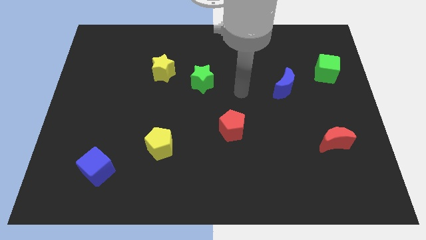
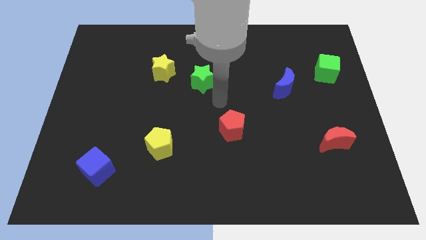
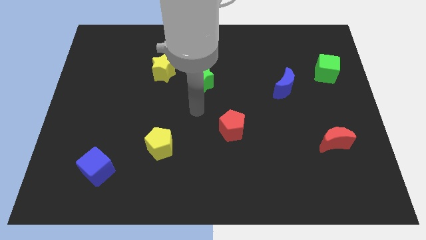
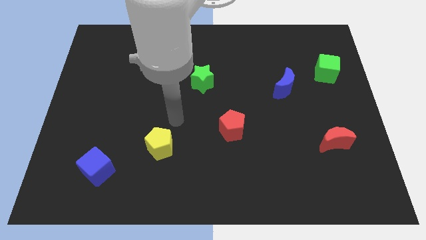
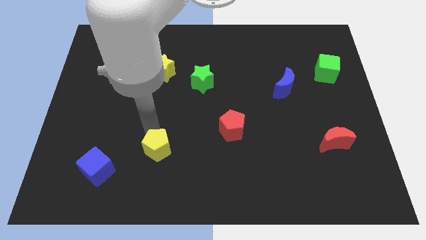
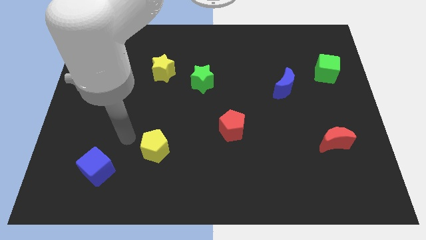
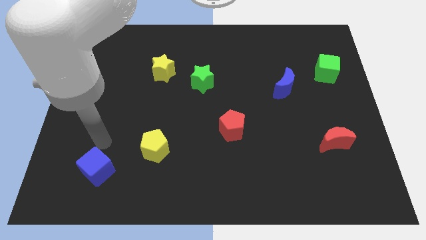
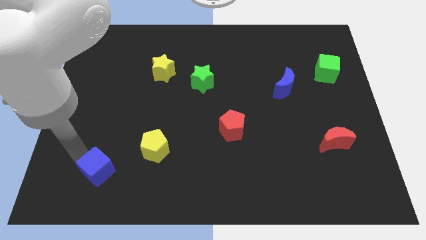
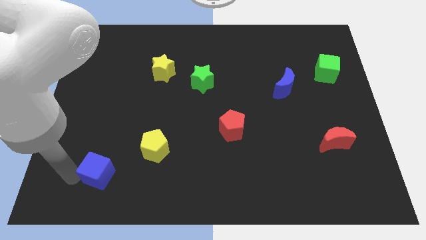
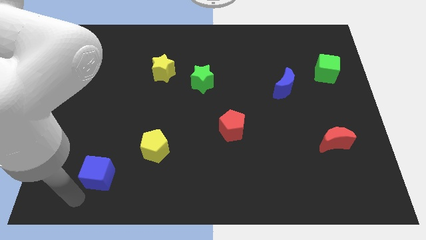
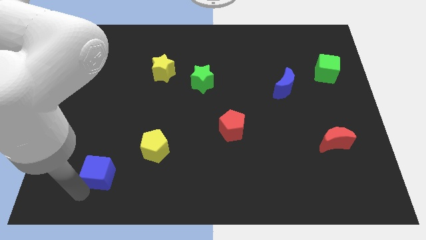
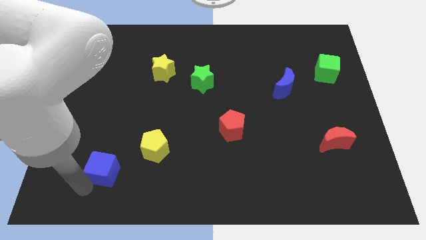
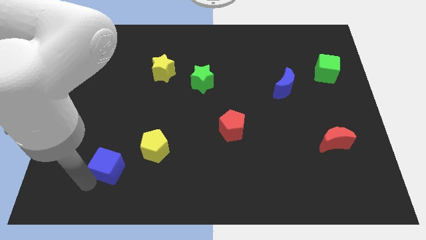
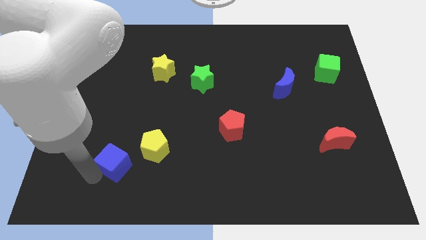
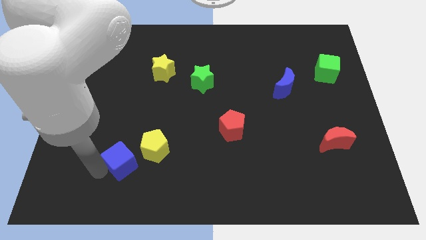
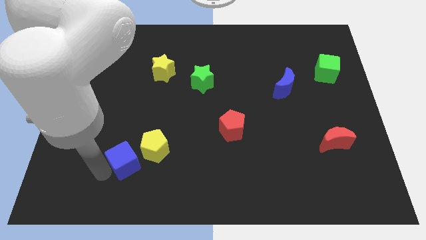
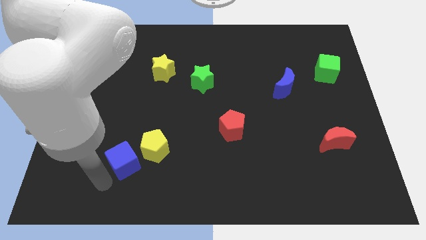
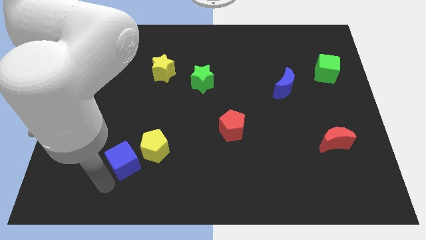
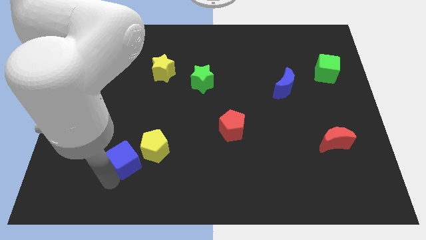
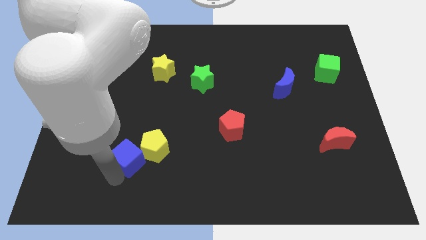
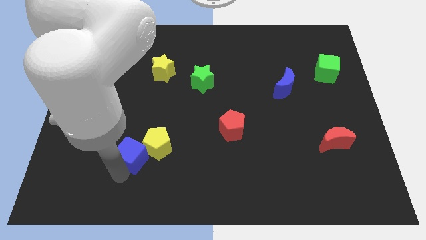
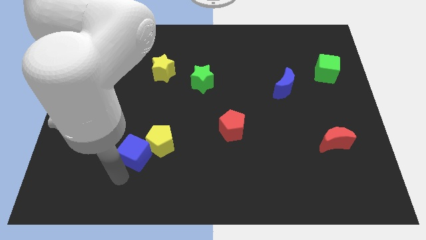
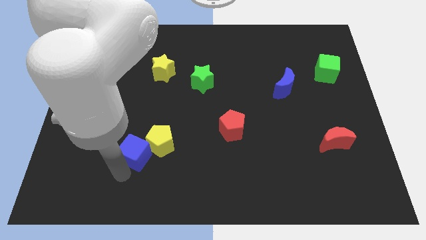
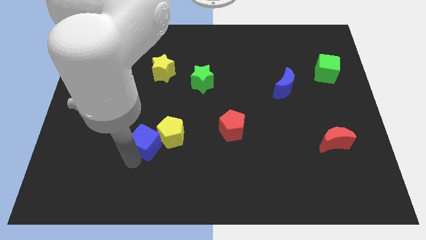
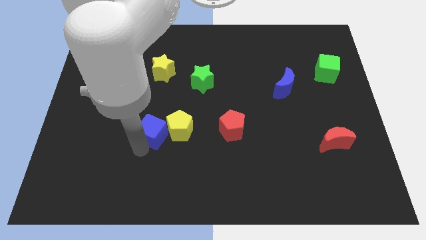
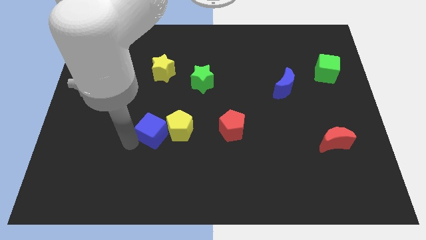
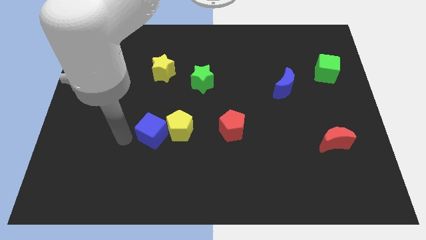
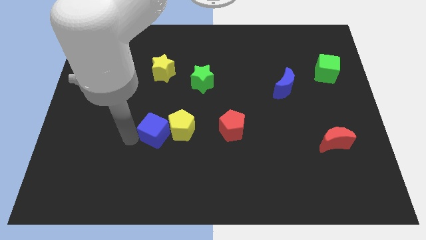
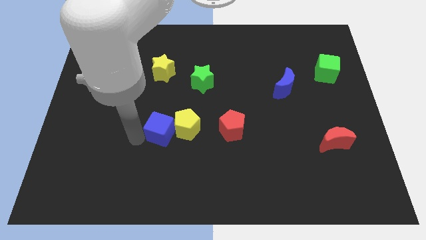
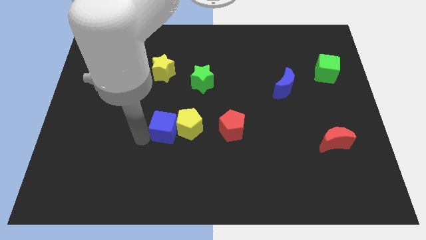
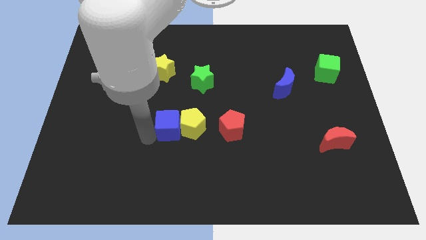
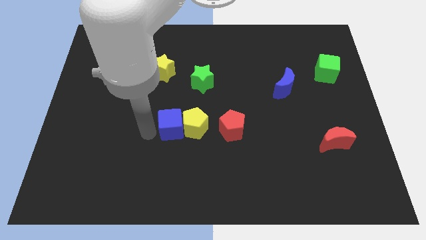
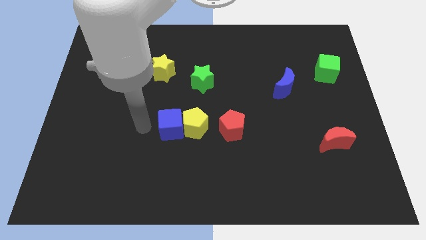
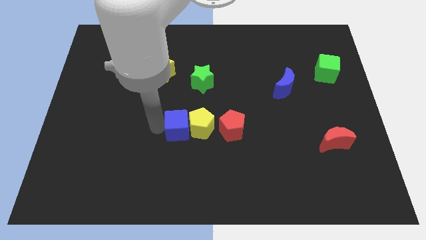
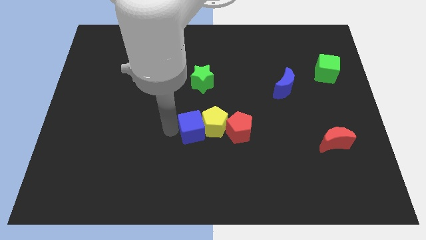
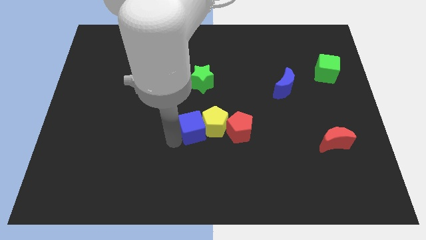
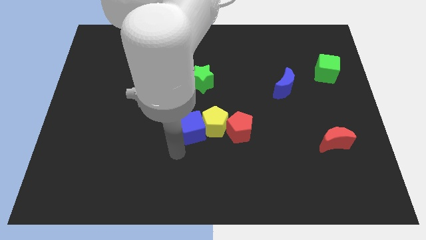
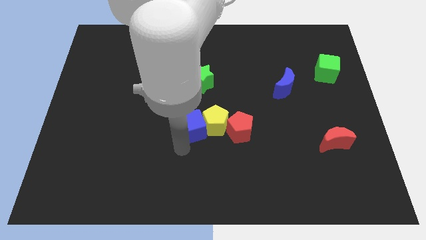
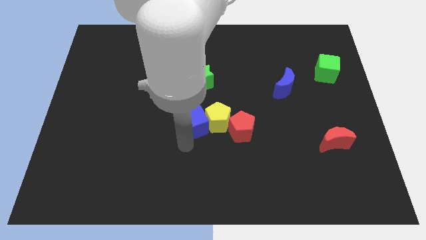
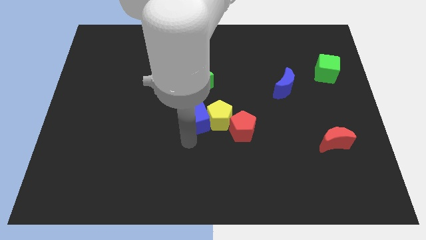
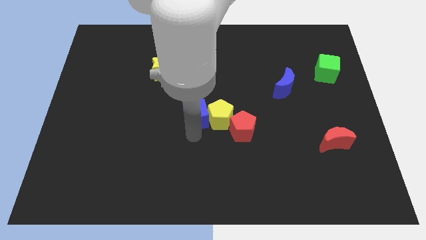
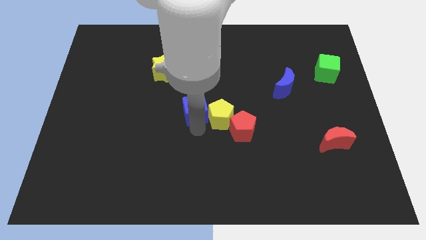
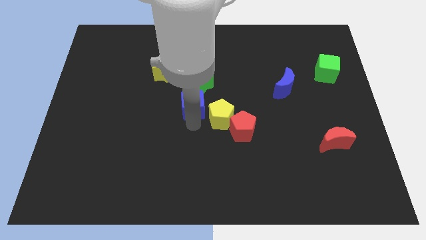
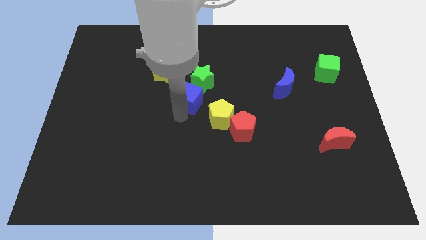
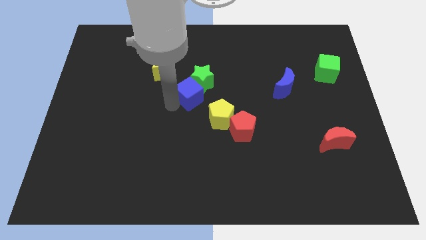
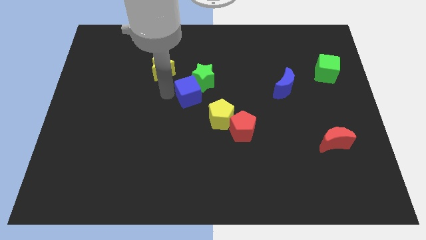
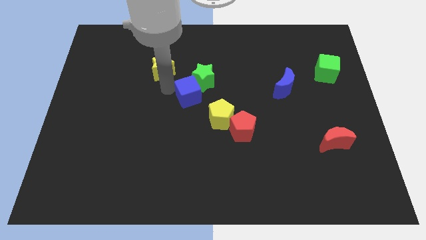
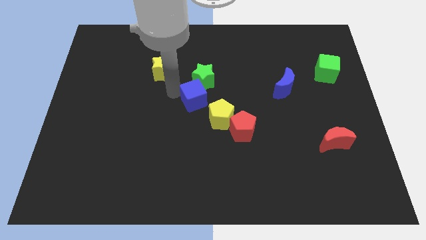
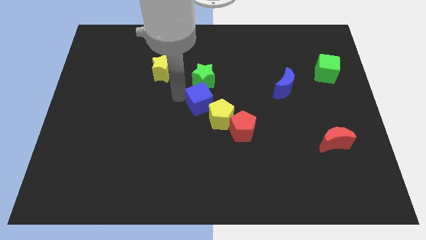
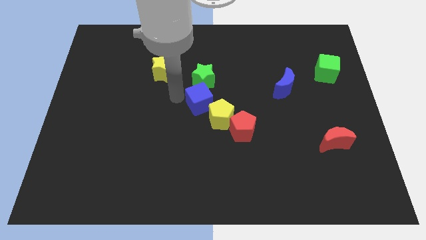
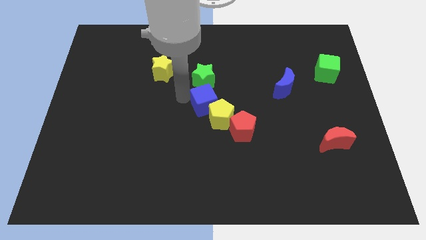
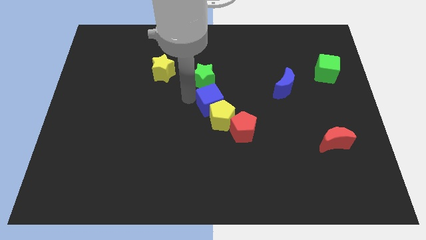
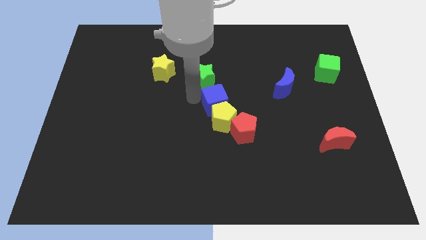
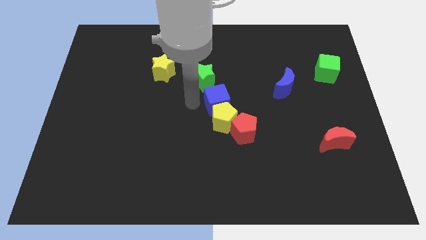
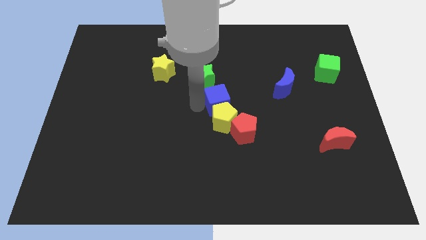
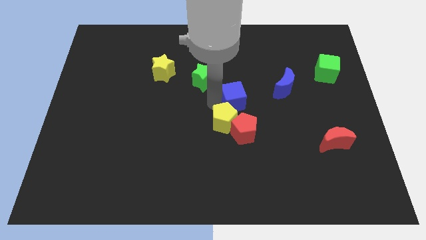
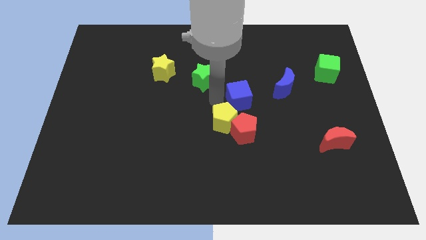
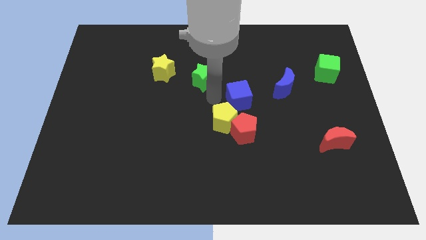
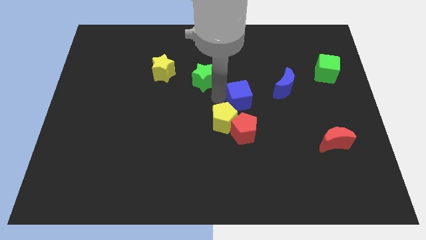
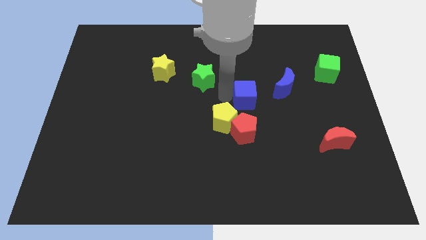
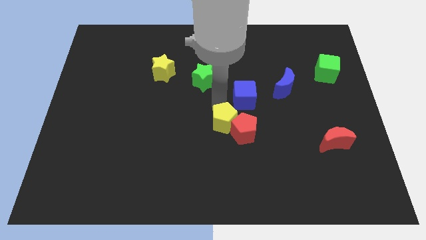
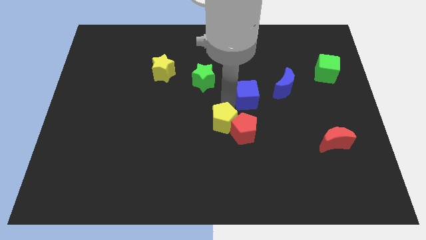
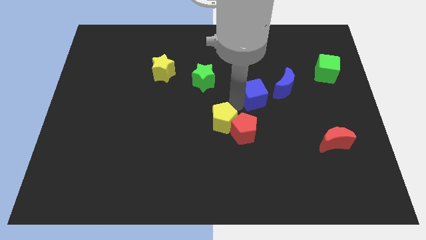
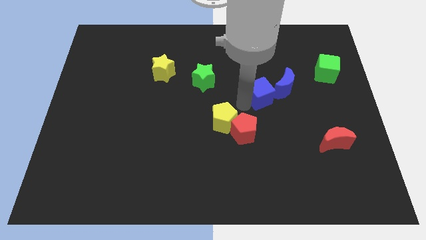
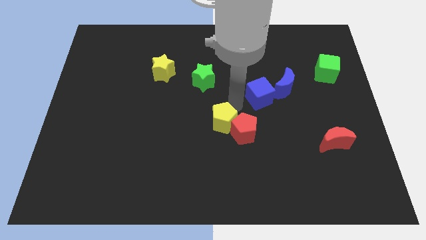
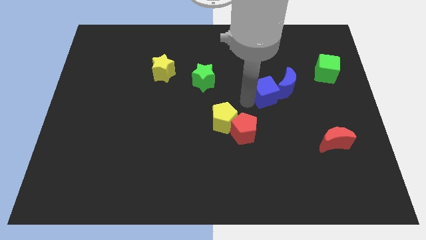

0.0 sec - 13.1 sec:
push the blue cube close to the blue moon

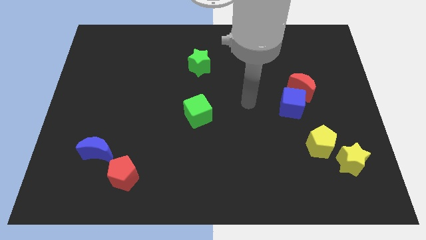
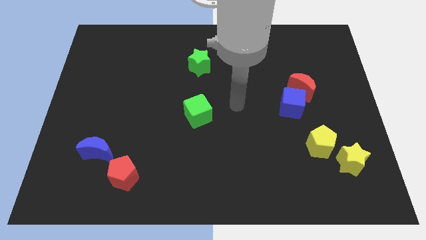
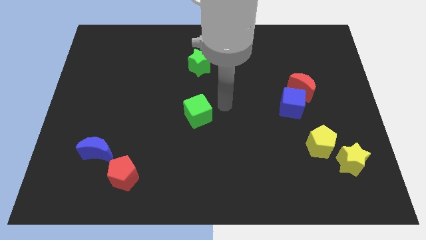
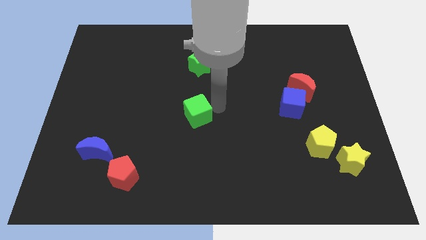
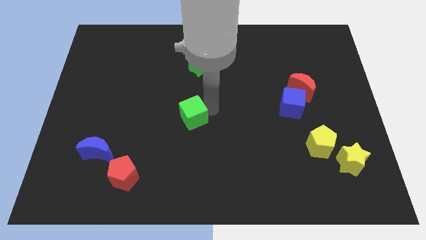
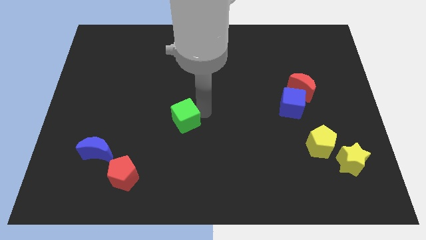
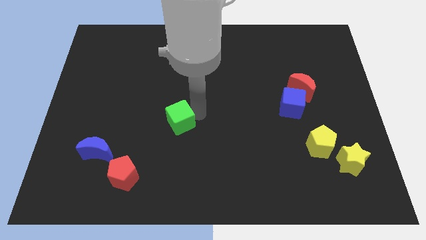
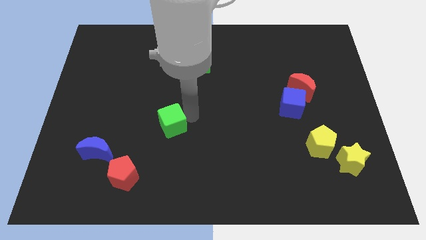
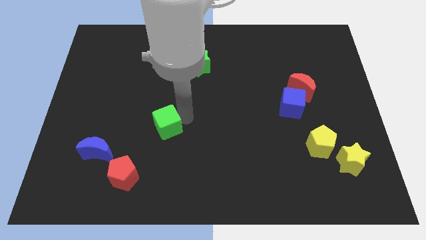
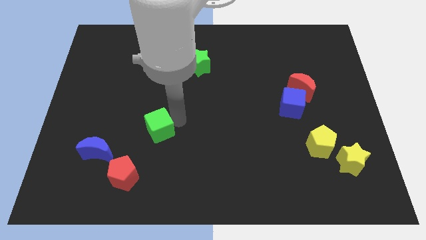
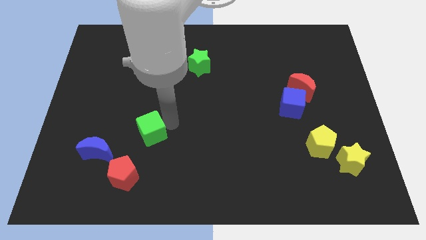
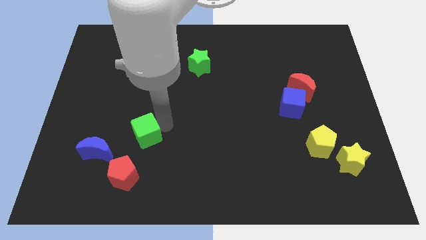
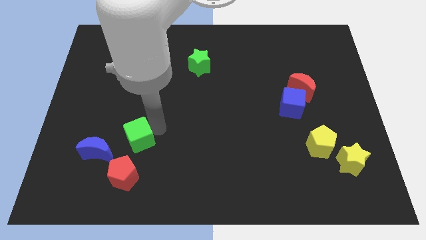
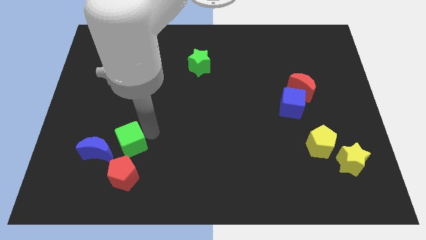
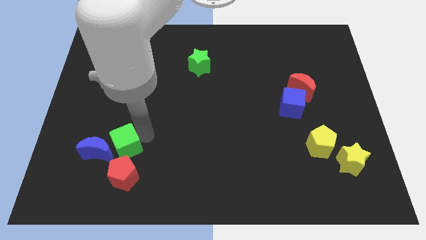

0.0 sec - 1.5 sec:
move the green cube next to the blue moon
